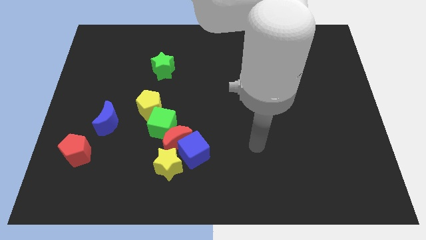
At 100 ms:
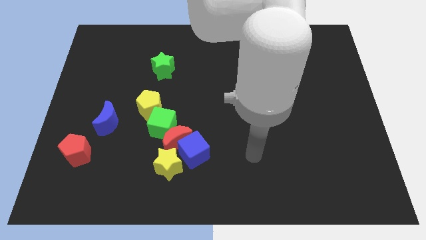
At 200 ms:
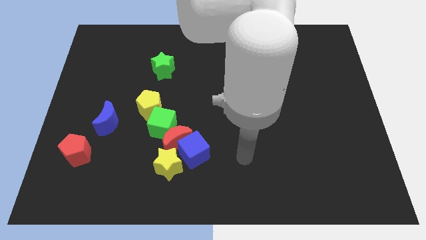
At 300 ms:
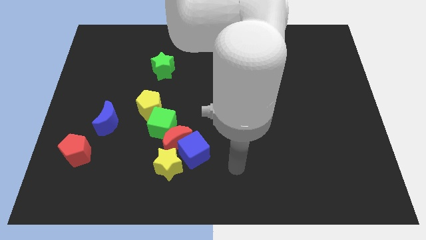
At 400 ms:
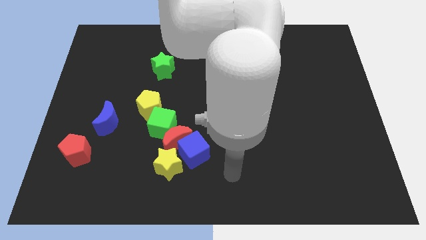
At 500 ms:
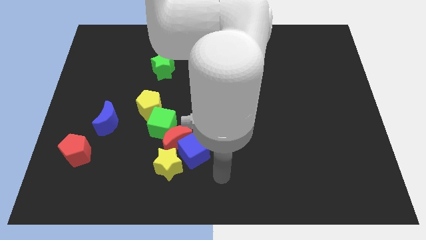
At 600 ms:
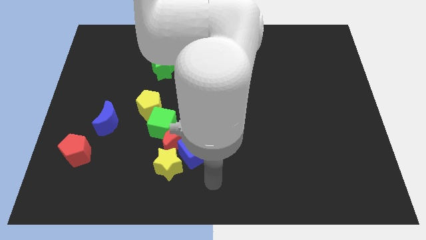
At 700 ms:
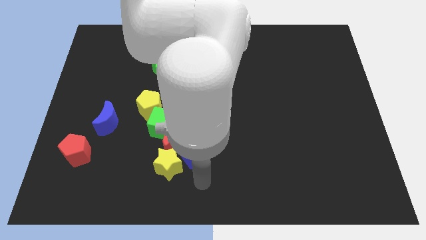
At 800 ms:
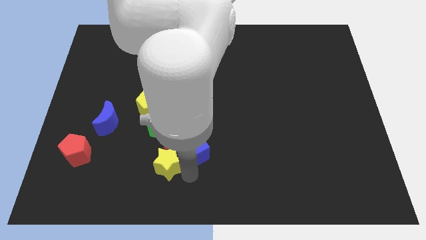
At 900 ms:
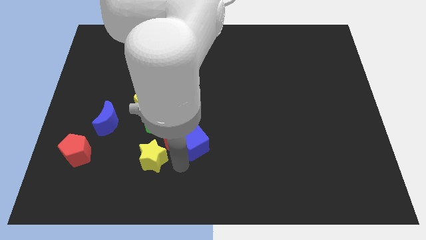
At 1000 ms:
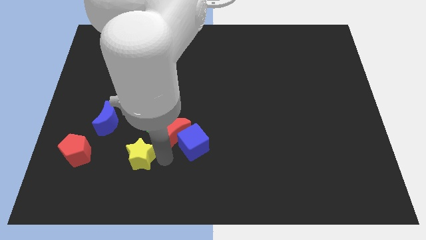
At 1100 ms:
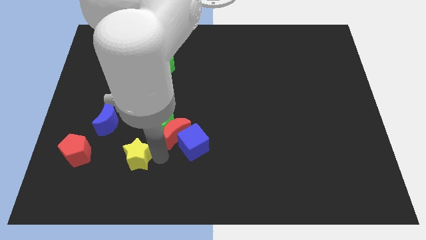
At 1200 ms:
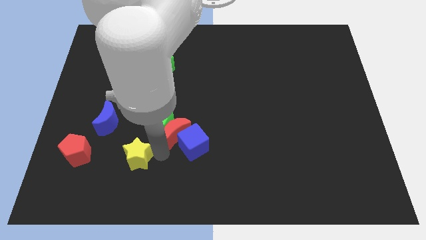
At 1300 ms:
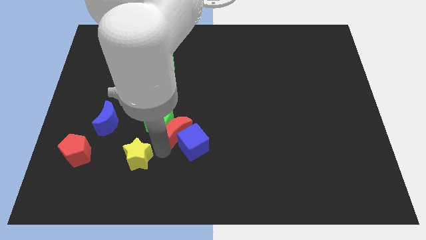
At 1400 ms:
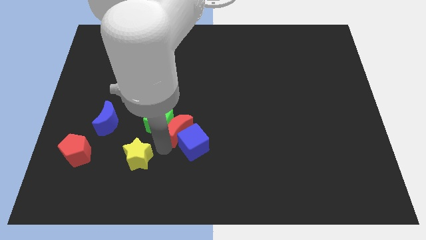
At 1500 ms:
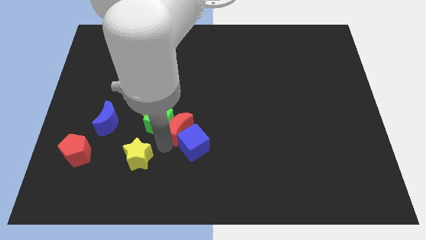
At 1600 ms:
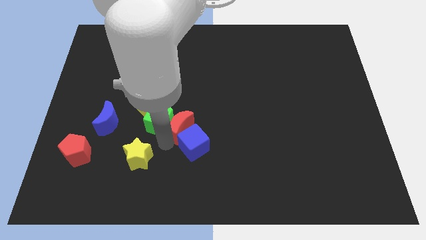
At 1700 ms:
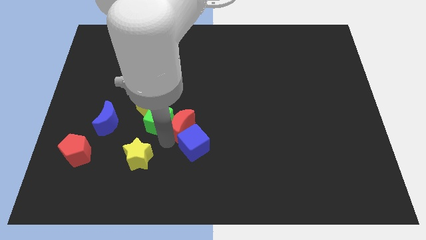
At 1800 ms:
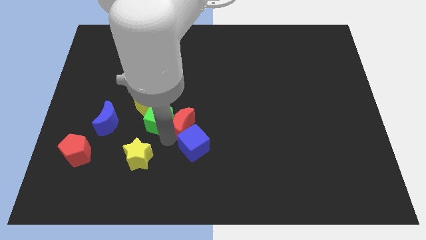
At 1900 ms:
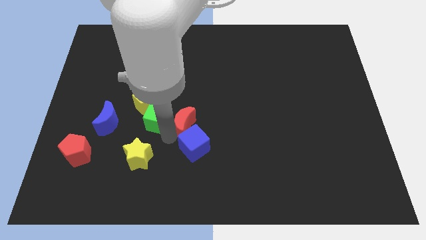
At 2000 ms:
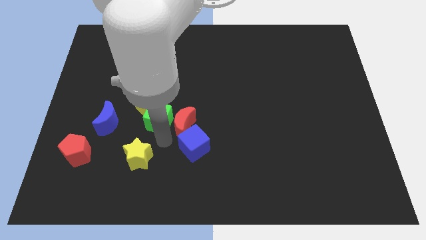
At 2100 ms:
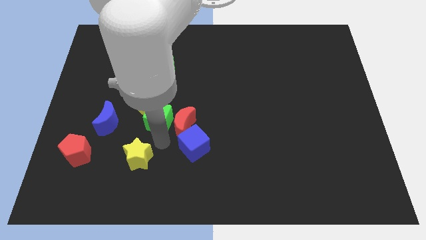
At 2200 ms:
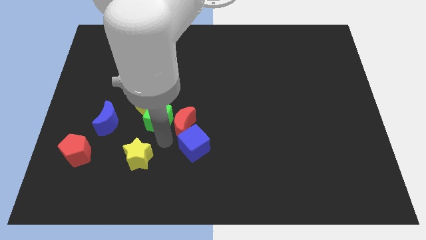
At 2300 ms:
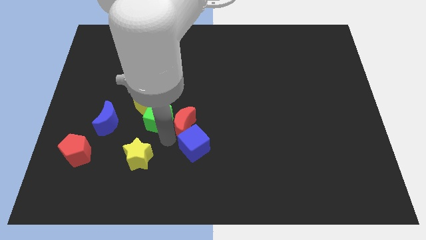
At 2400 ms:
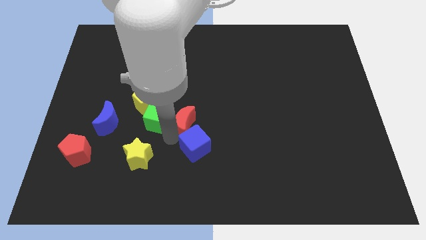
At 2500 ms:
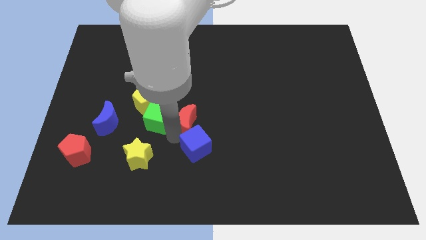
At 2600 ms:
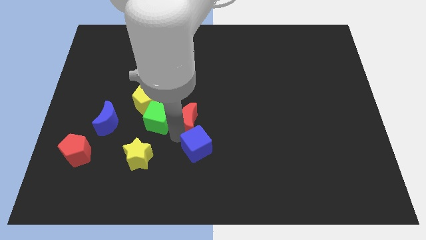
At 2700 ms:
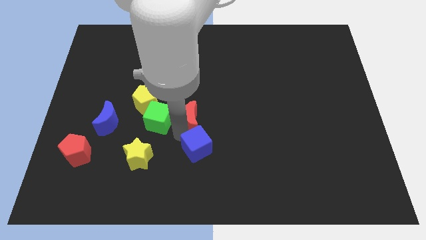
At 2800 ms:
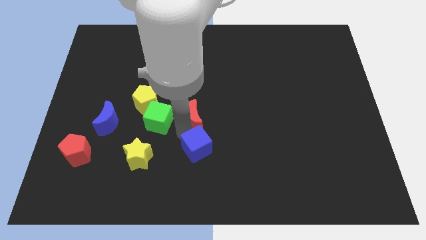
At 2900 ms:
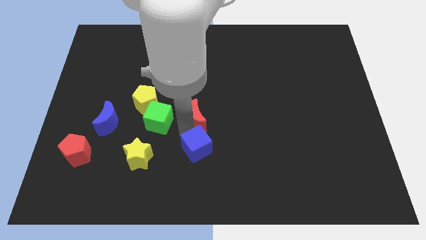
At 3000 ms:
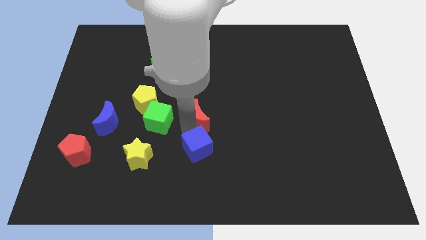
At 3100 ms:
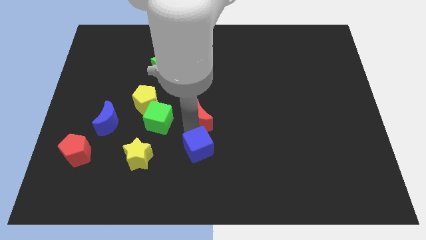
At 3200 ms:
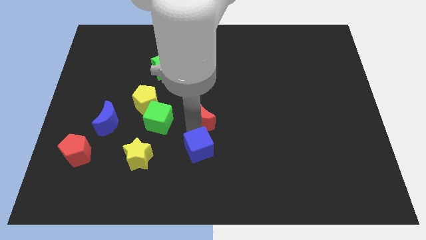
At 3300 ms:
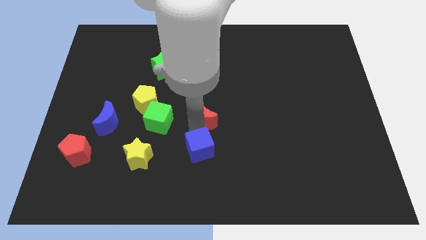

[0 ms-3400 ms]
pull the red moon apart from the group of blocks

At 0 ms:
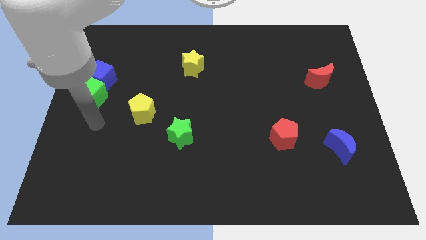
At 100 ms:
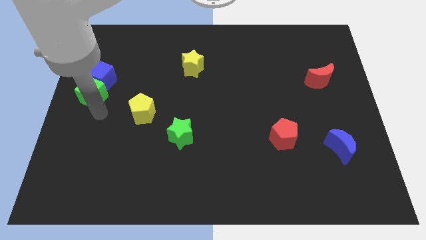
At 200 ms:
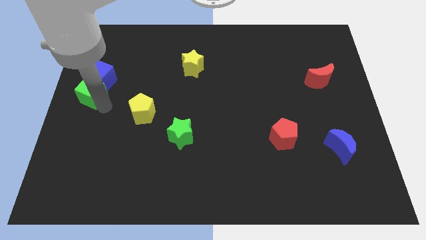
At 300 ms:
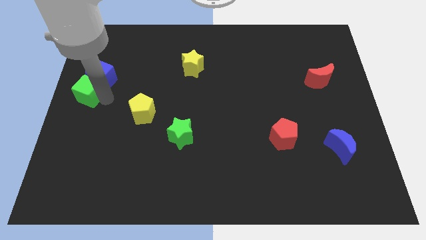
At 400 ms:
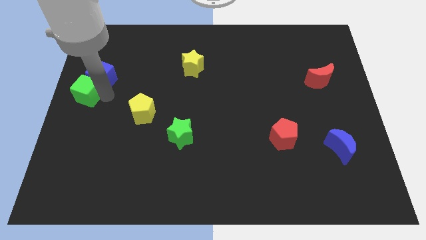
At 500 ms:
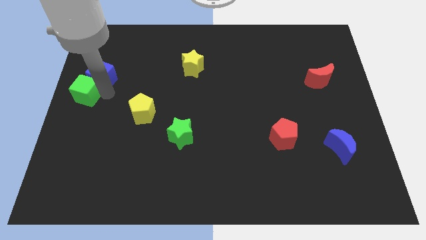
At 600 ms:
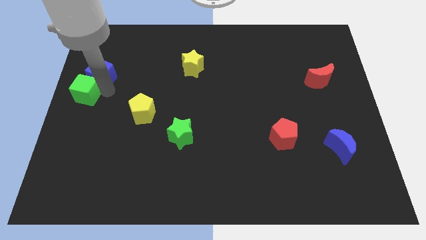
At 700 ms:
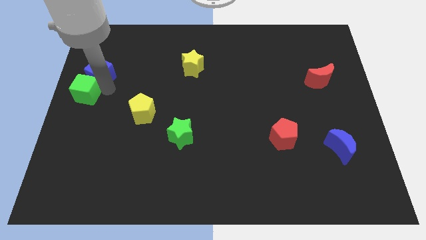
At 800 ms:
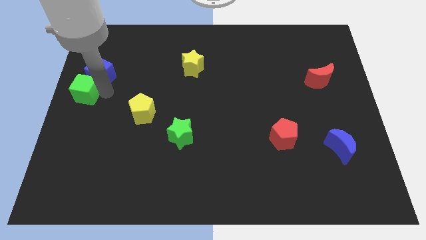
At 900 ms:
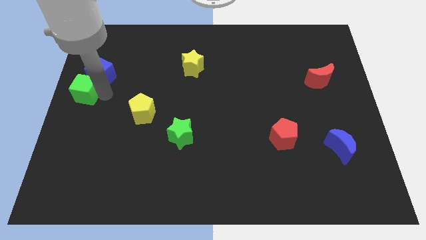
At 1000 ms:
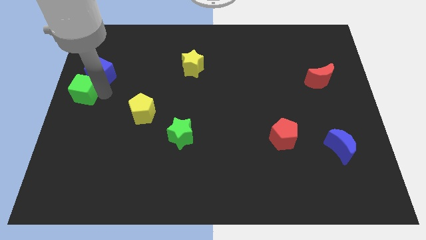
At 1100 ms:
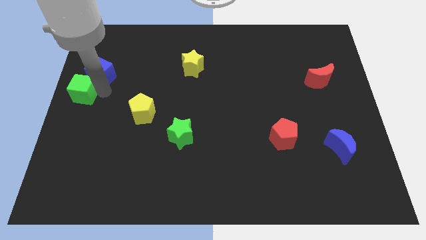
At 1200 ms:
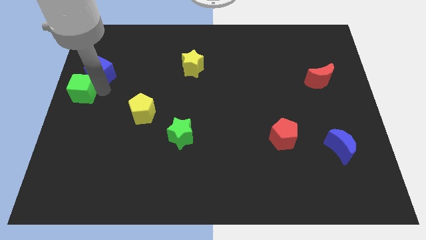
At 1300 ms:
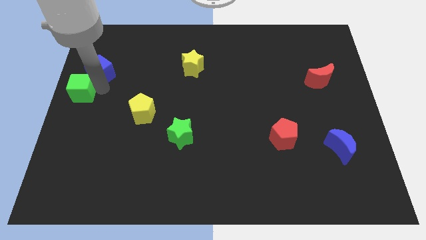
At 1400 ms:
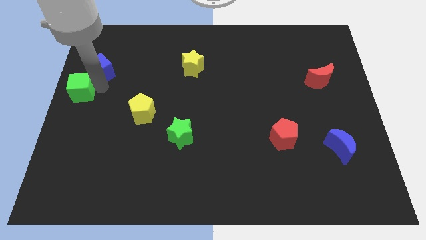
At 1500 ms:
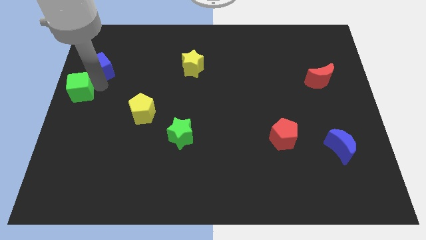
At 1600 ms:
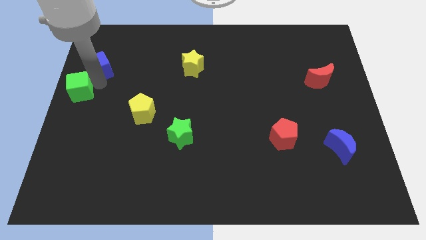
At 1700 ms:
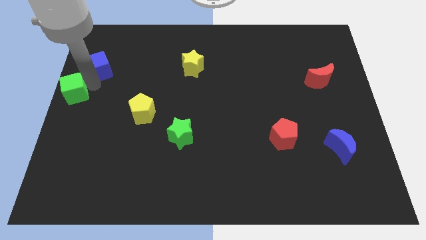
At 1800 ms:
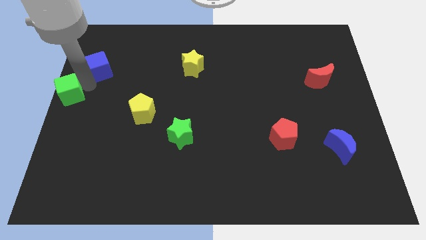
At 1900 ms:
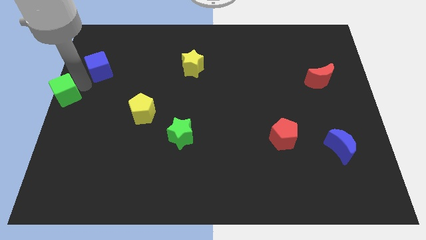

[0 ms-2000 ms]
move the blue cube away from the green cube

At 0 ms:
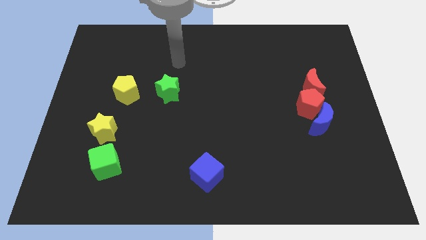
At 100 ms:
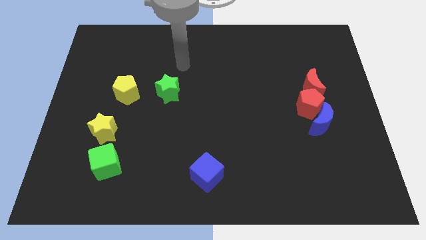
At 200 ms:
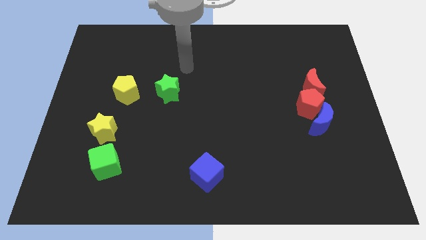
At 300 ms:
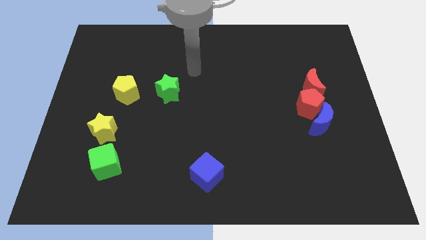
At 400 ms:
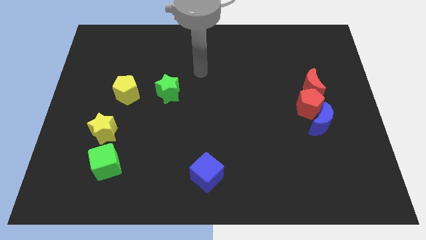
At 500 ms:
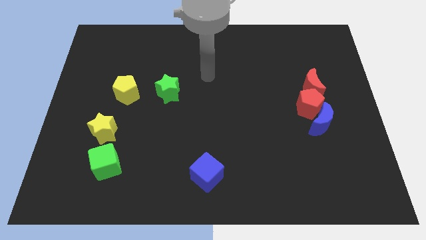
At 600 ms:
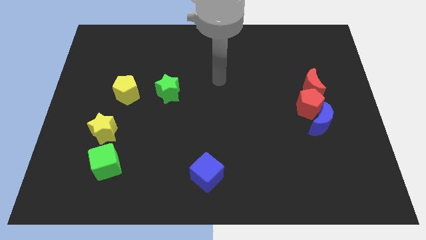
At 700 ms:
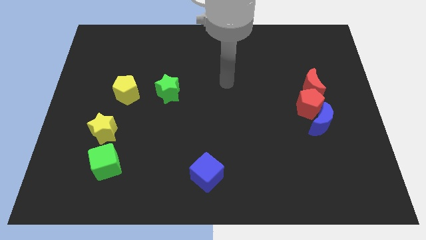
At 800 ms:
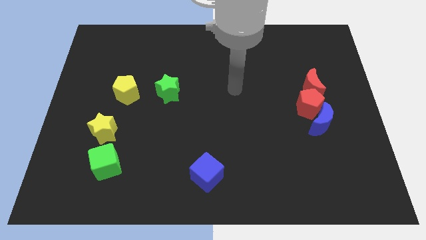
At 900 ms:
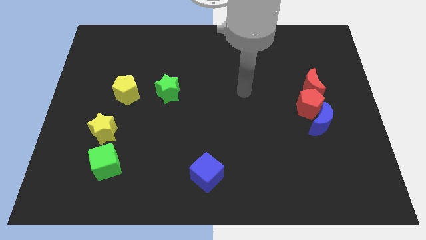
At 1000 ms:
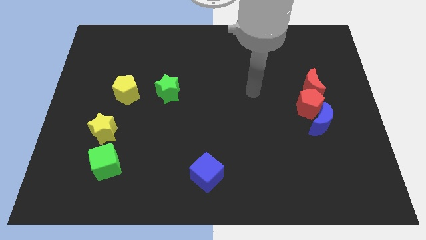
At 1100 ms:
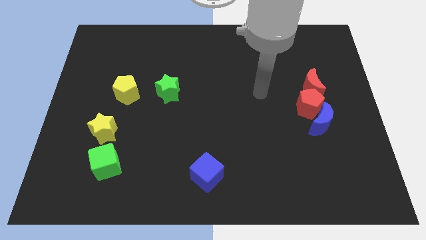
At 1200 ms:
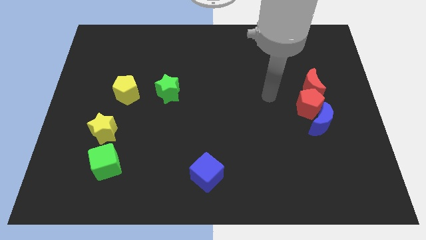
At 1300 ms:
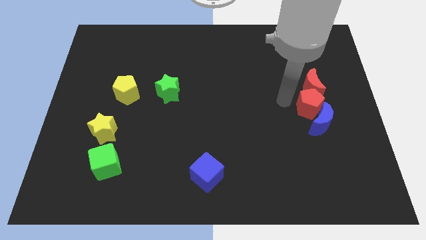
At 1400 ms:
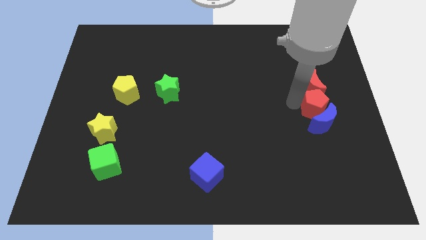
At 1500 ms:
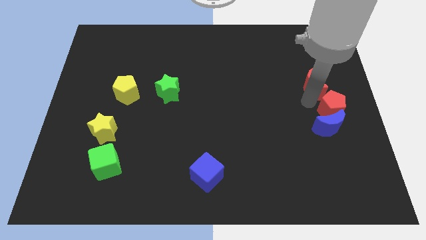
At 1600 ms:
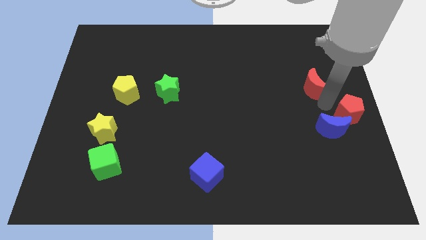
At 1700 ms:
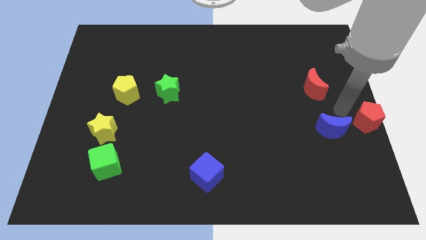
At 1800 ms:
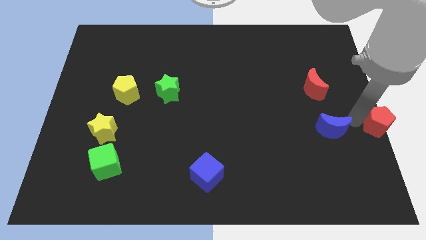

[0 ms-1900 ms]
pull the blue moon apart from the red pentagon

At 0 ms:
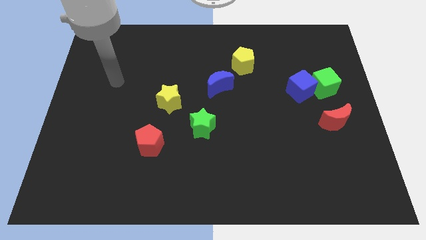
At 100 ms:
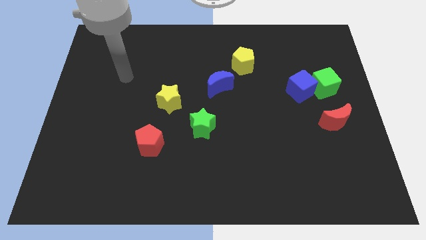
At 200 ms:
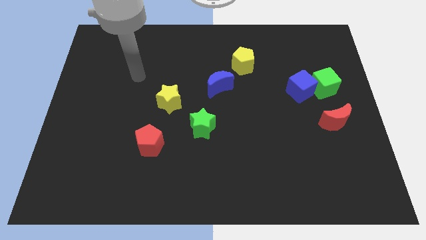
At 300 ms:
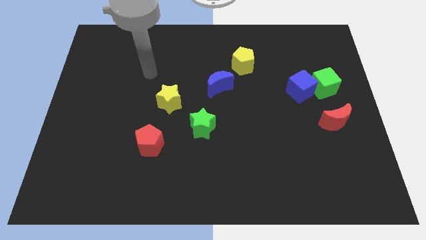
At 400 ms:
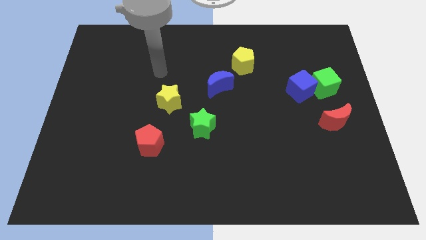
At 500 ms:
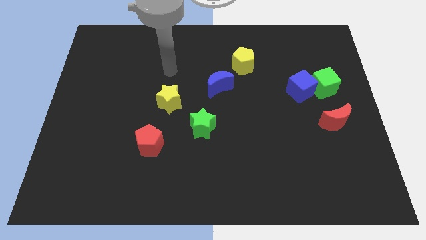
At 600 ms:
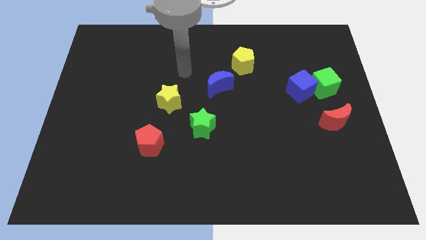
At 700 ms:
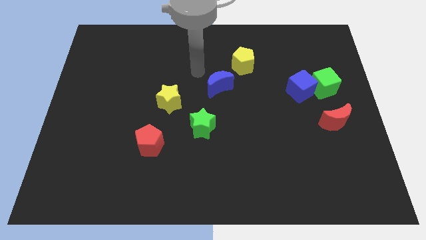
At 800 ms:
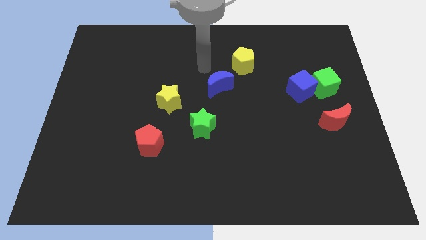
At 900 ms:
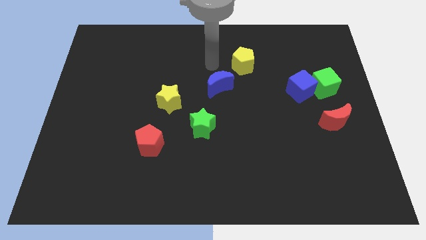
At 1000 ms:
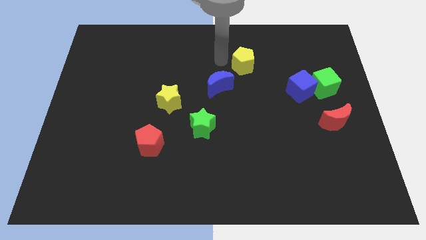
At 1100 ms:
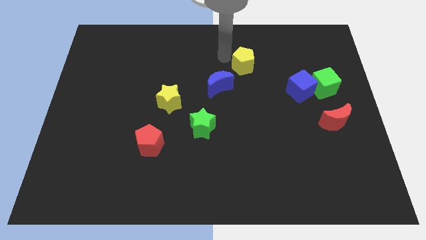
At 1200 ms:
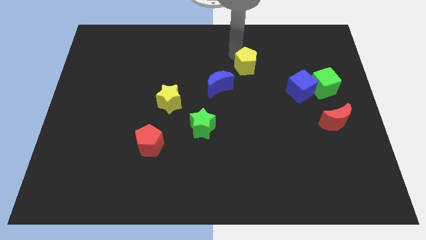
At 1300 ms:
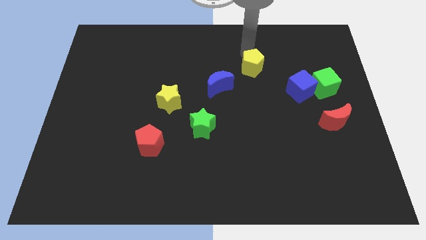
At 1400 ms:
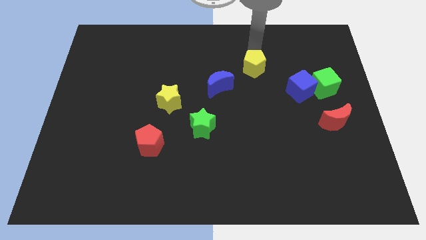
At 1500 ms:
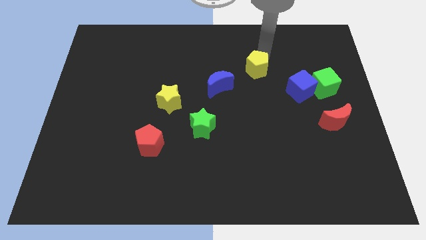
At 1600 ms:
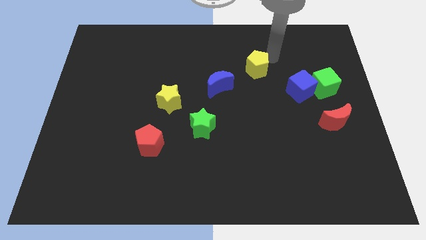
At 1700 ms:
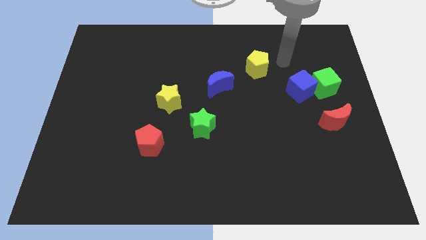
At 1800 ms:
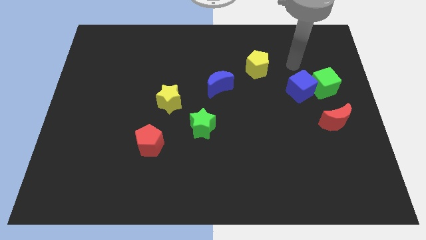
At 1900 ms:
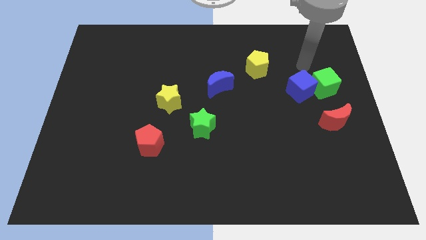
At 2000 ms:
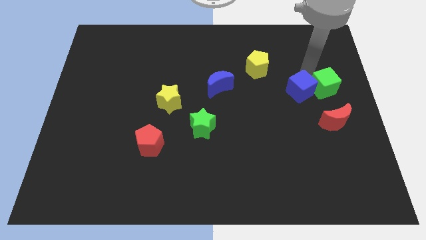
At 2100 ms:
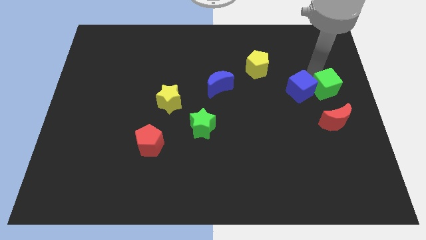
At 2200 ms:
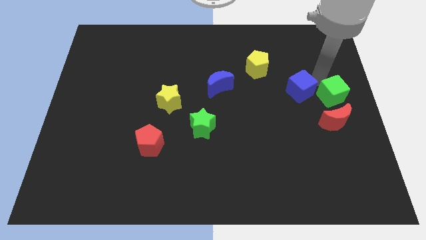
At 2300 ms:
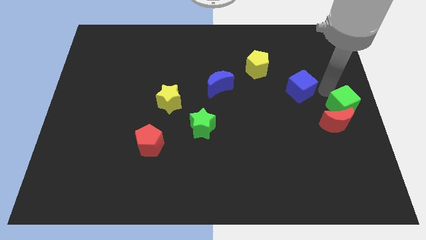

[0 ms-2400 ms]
separate the blue cube from the green cube
